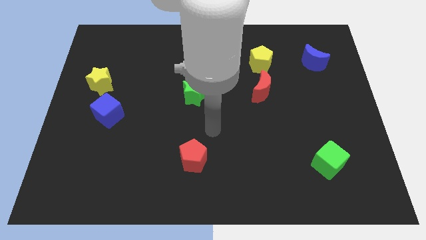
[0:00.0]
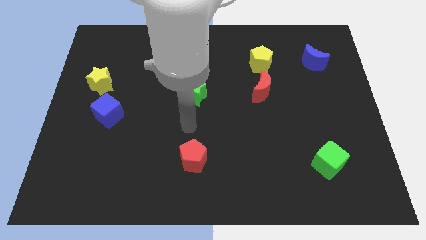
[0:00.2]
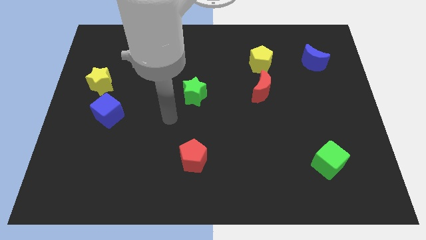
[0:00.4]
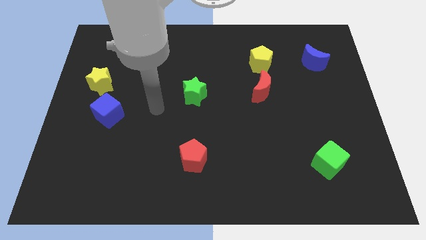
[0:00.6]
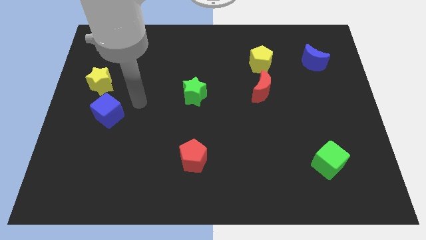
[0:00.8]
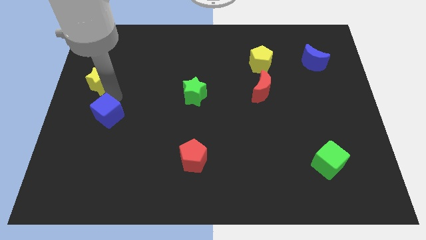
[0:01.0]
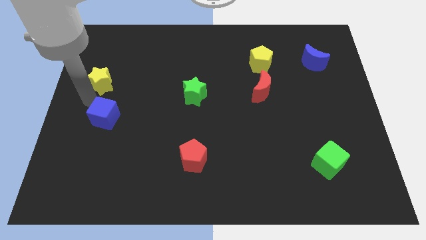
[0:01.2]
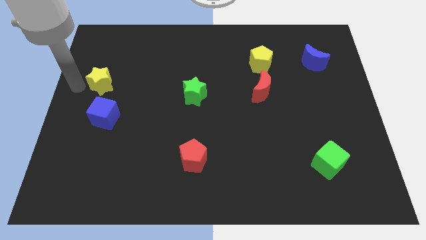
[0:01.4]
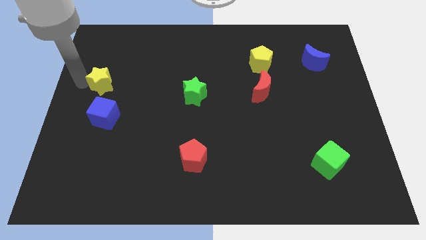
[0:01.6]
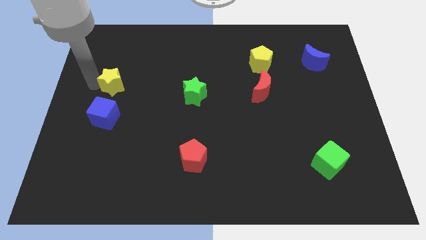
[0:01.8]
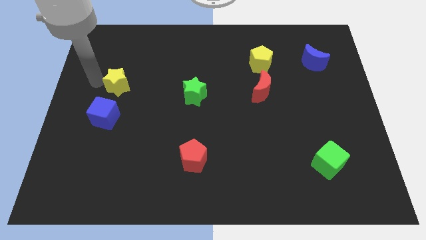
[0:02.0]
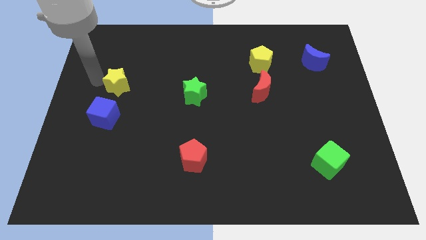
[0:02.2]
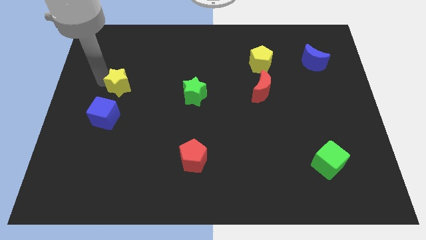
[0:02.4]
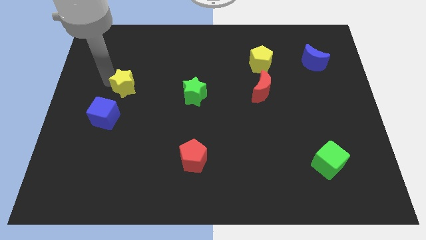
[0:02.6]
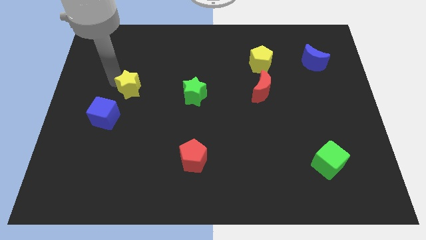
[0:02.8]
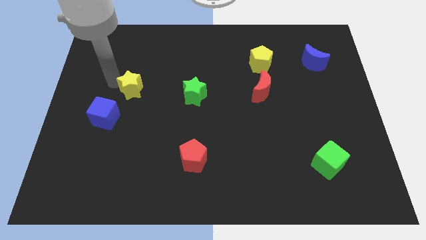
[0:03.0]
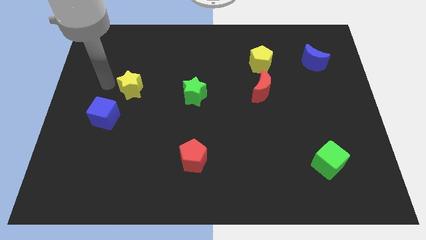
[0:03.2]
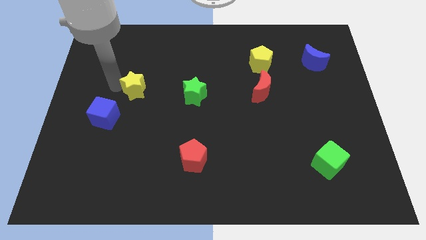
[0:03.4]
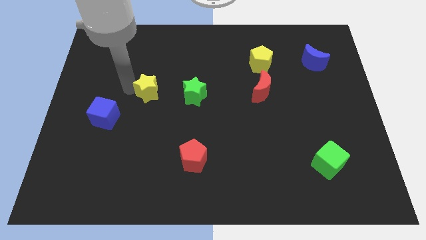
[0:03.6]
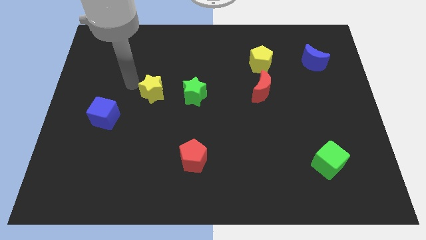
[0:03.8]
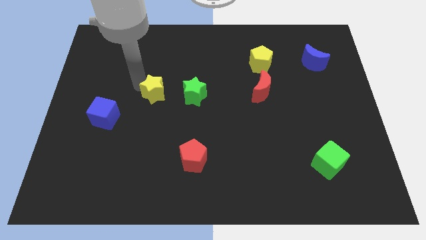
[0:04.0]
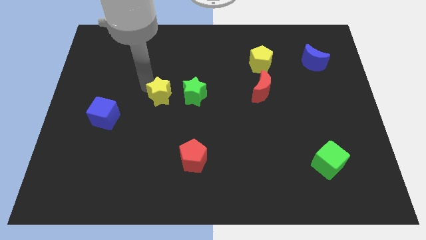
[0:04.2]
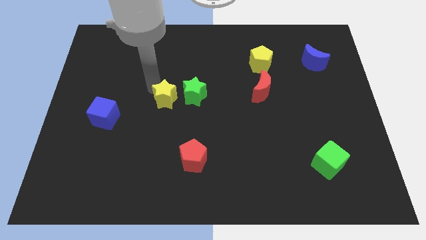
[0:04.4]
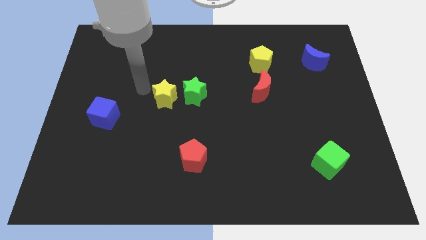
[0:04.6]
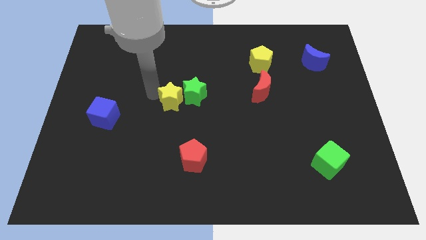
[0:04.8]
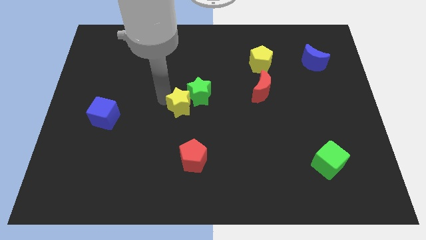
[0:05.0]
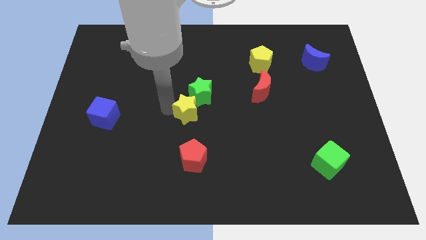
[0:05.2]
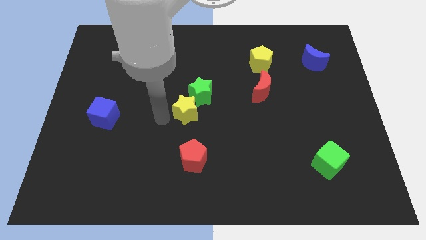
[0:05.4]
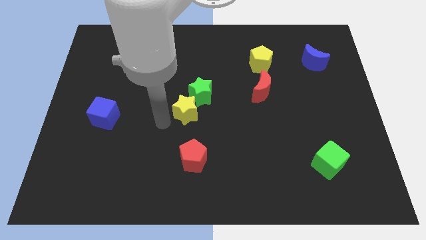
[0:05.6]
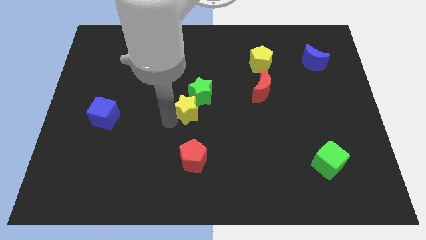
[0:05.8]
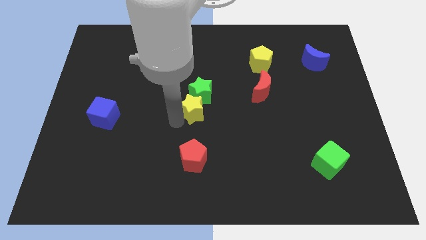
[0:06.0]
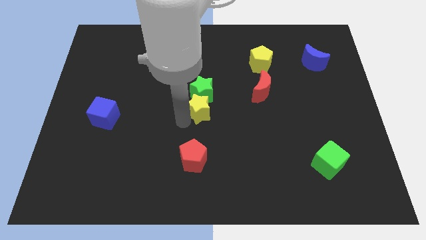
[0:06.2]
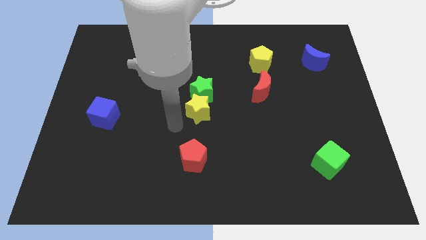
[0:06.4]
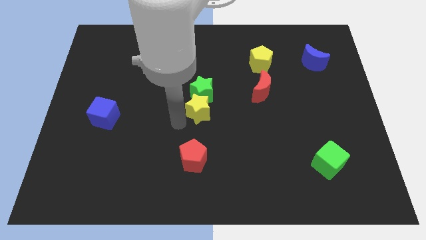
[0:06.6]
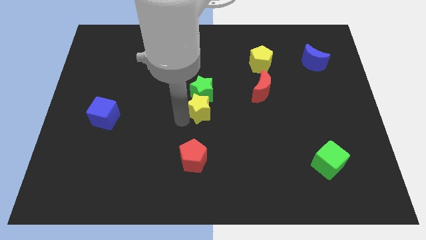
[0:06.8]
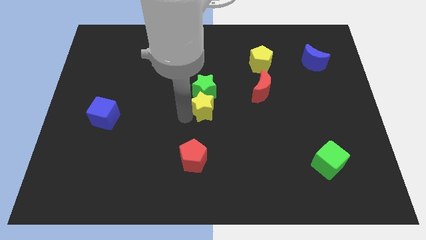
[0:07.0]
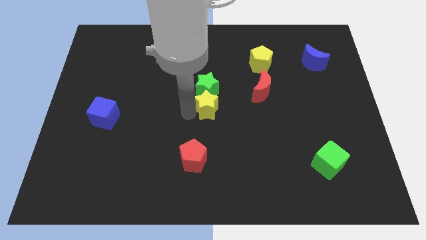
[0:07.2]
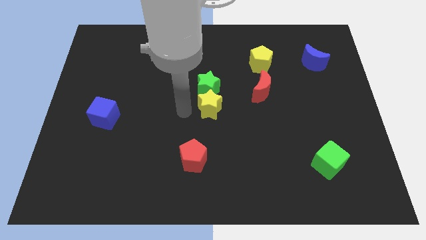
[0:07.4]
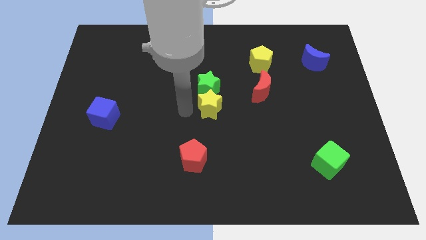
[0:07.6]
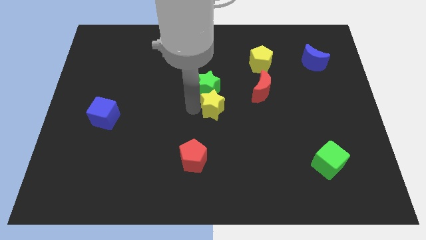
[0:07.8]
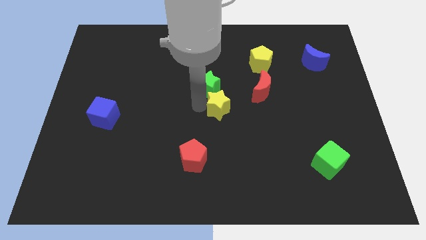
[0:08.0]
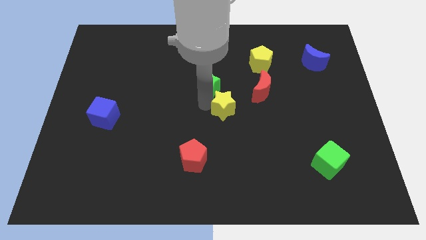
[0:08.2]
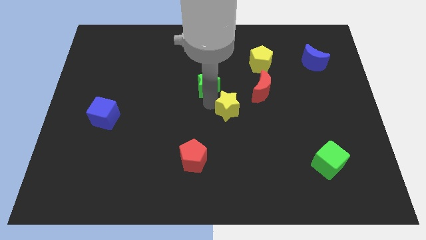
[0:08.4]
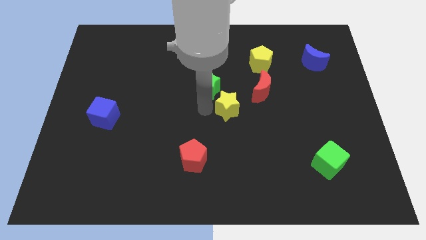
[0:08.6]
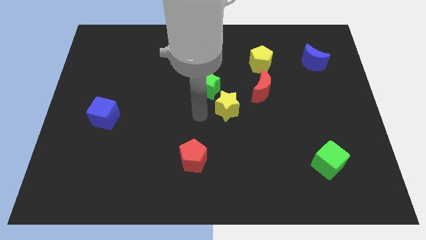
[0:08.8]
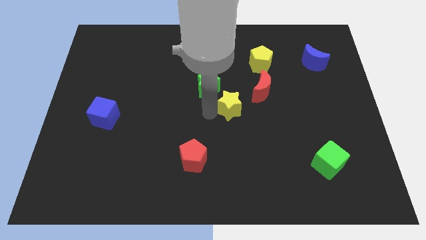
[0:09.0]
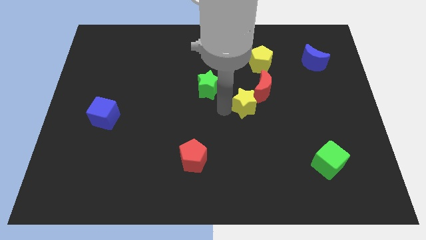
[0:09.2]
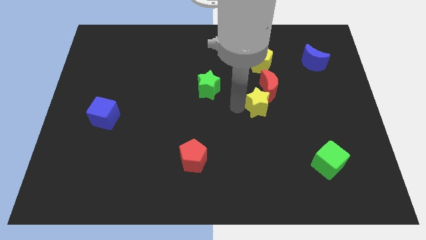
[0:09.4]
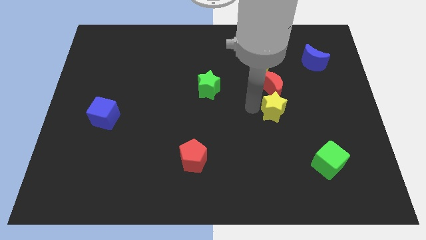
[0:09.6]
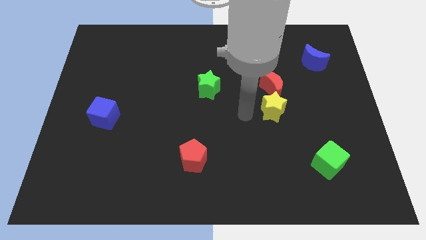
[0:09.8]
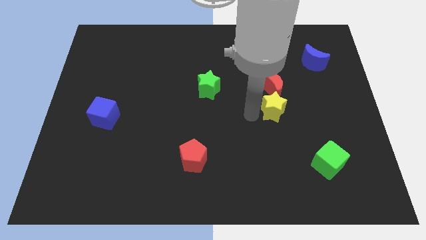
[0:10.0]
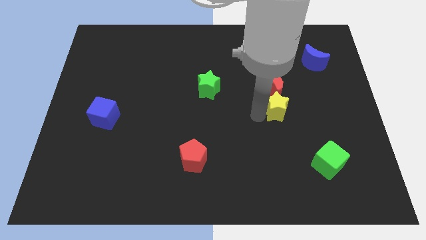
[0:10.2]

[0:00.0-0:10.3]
move the yellow star to the bottom right side of the red moon

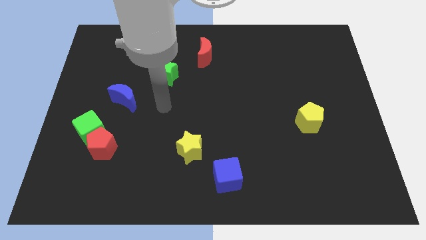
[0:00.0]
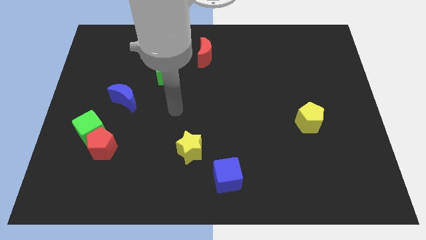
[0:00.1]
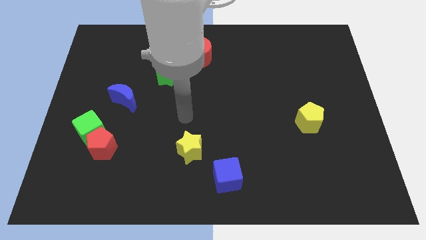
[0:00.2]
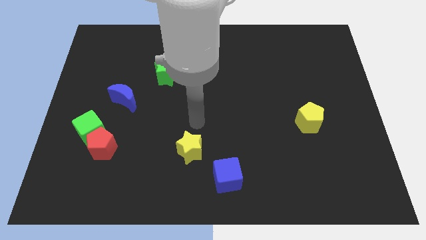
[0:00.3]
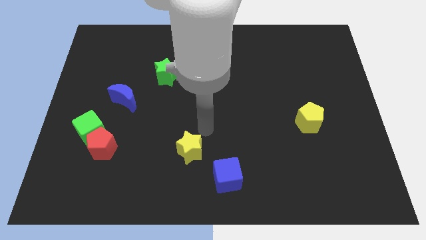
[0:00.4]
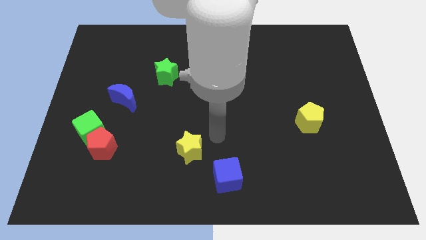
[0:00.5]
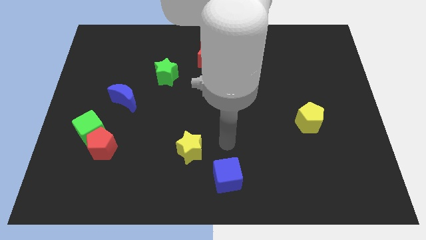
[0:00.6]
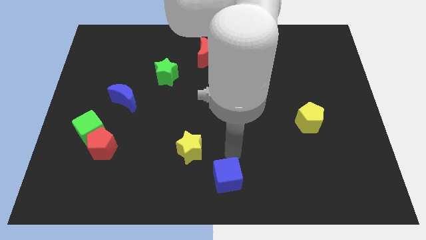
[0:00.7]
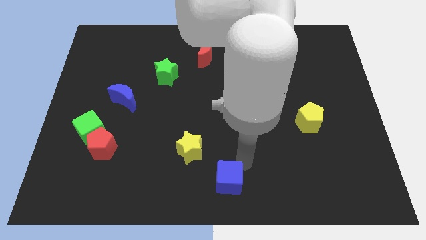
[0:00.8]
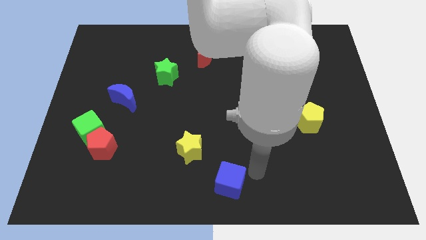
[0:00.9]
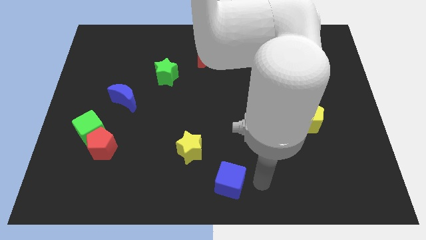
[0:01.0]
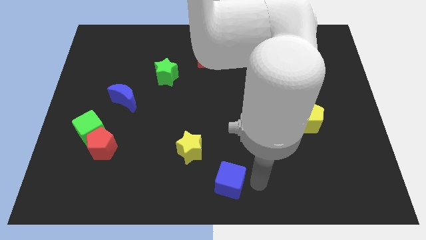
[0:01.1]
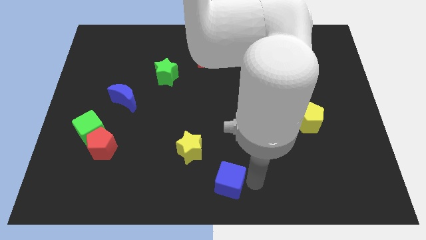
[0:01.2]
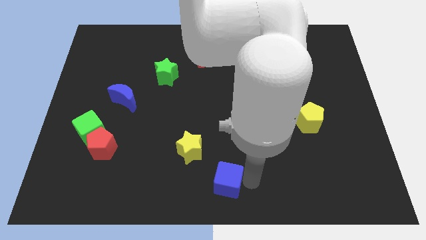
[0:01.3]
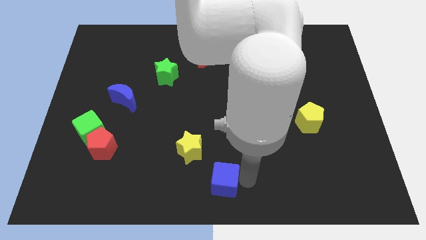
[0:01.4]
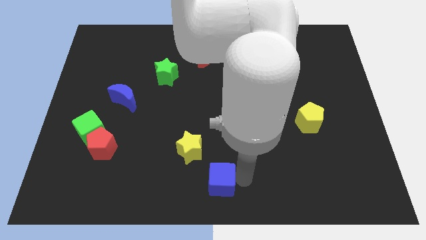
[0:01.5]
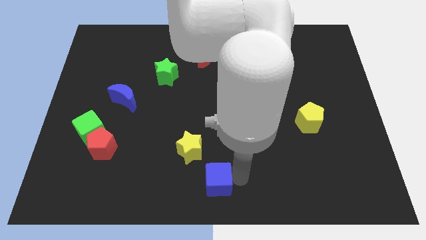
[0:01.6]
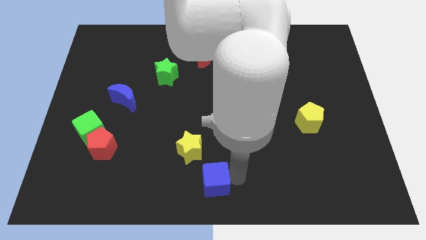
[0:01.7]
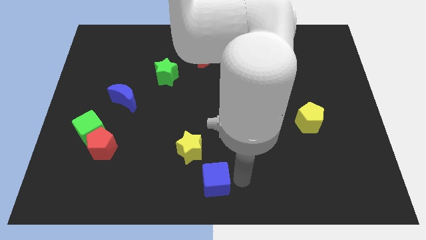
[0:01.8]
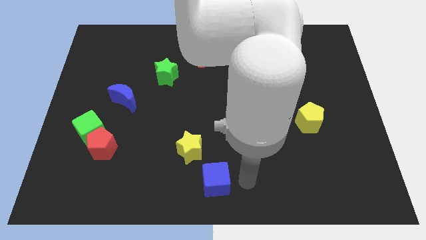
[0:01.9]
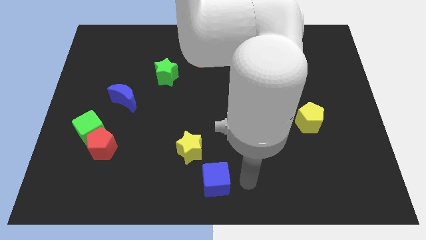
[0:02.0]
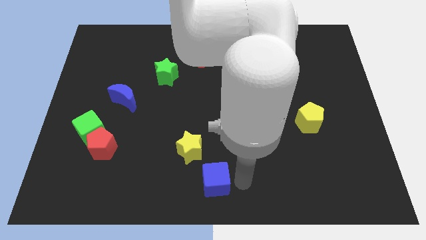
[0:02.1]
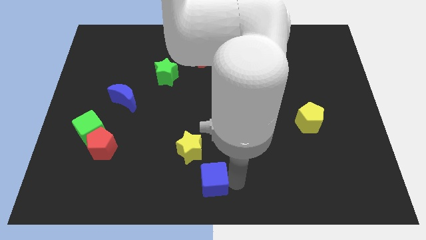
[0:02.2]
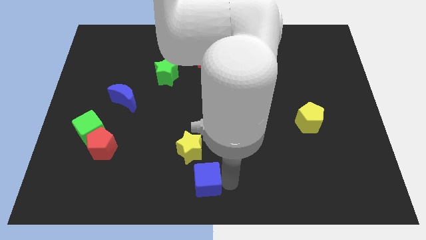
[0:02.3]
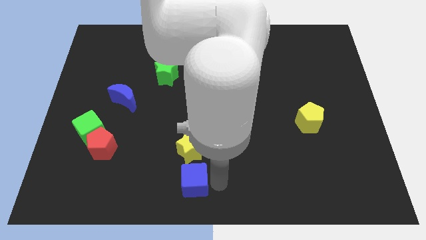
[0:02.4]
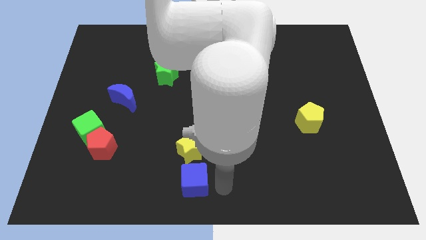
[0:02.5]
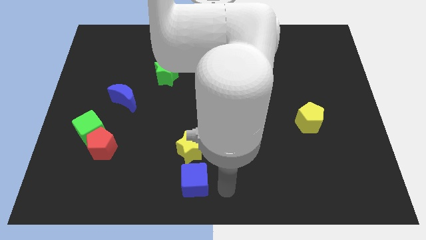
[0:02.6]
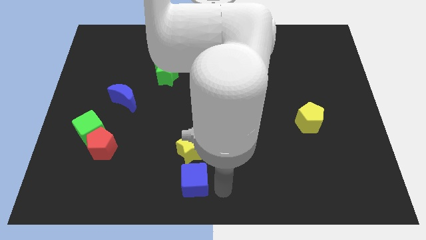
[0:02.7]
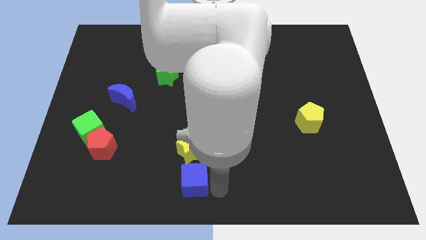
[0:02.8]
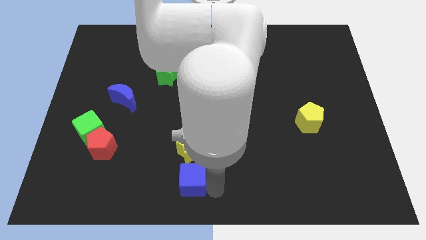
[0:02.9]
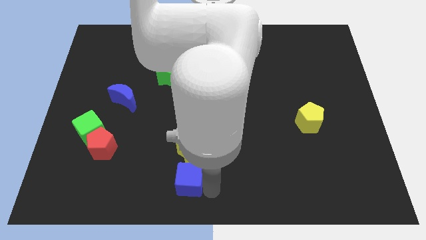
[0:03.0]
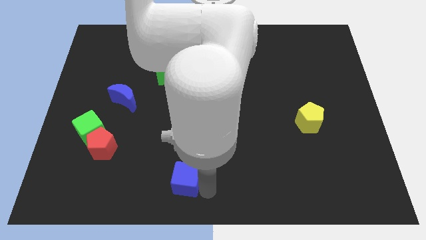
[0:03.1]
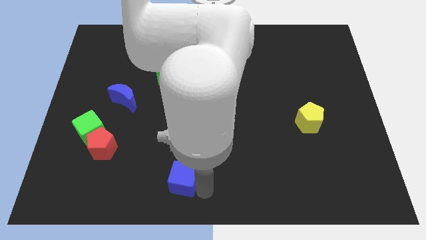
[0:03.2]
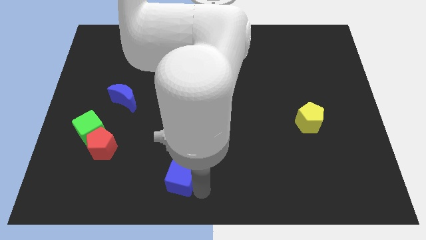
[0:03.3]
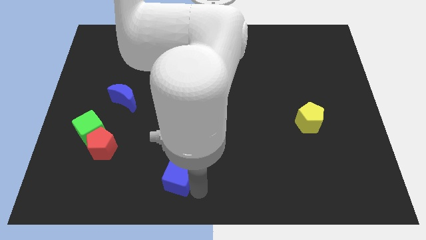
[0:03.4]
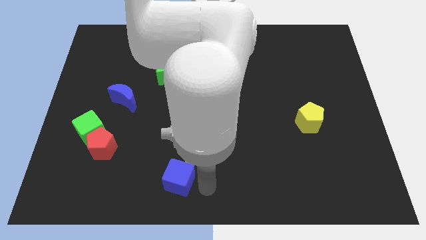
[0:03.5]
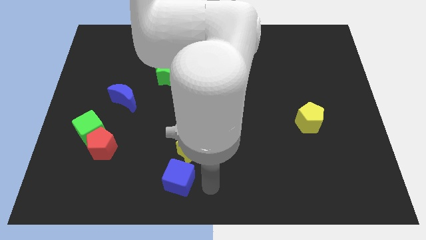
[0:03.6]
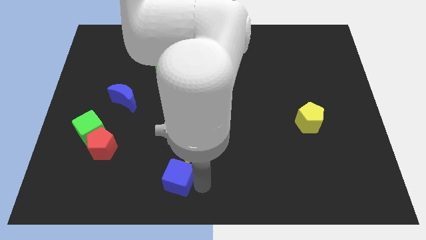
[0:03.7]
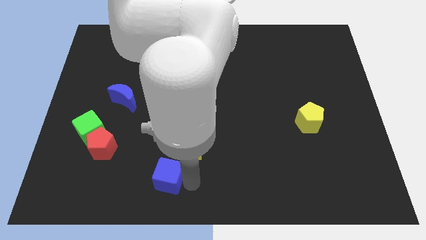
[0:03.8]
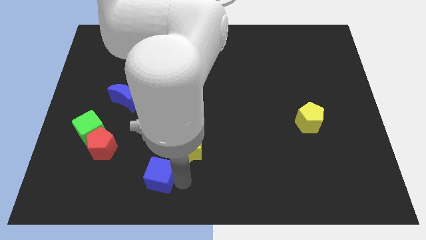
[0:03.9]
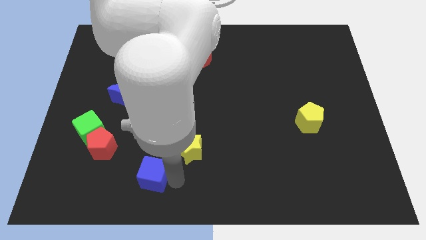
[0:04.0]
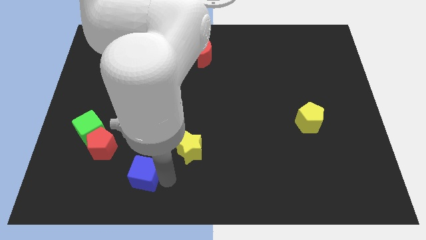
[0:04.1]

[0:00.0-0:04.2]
move the blue cube to the bottom right of the red pentagon
